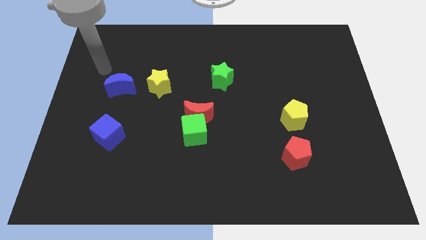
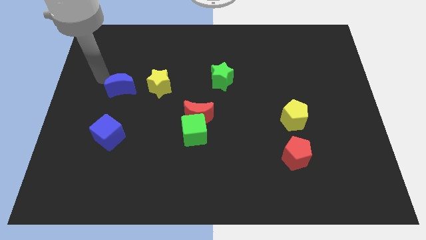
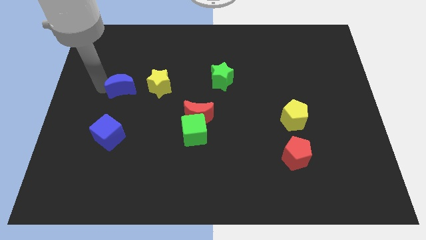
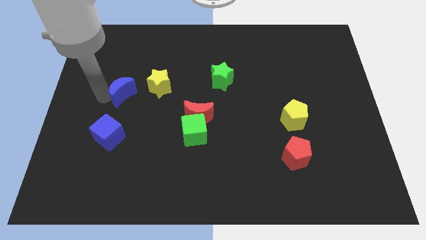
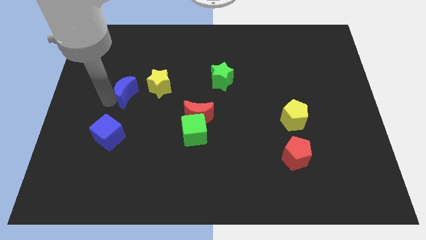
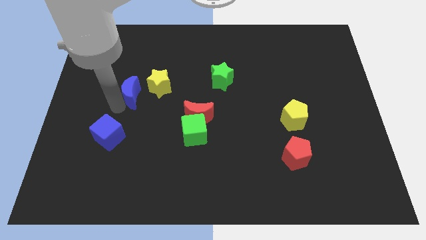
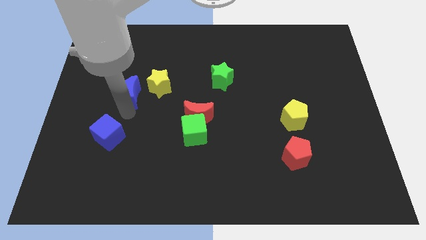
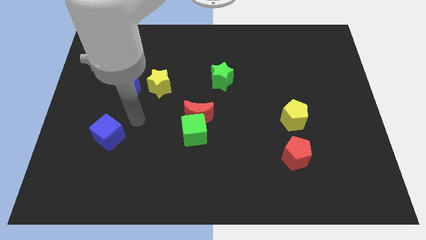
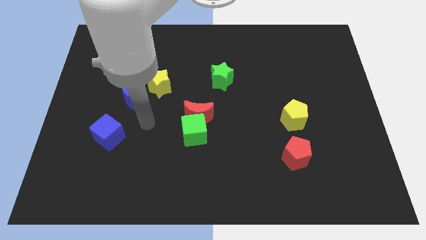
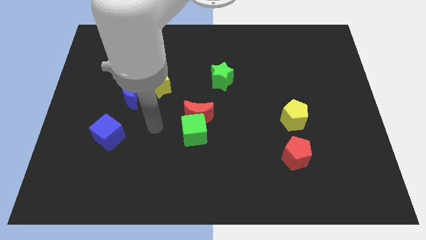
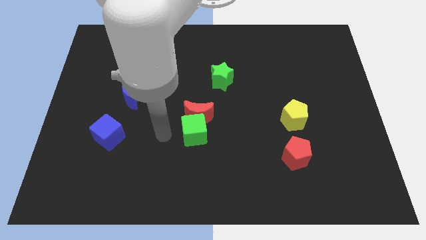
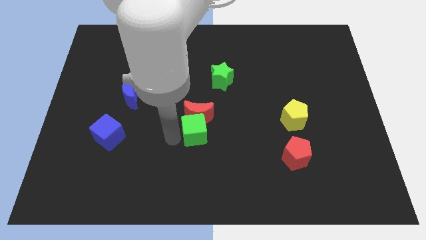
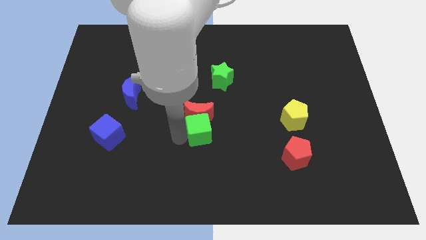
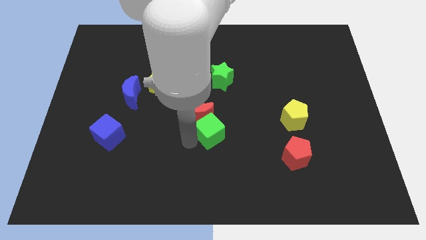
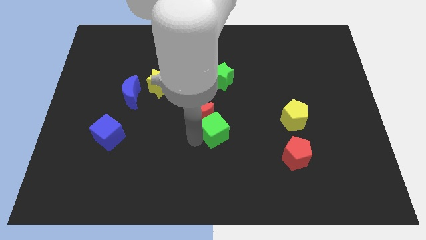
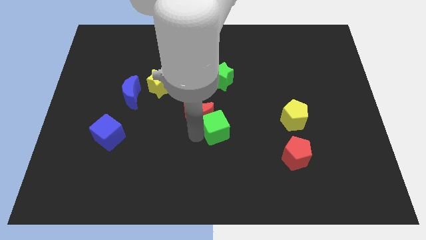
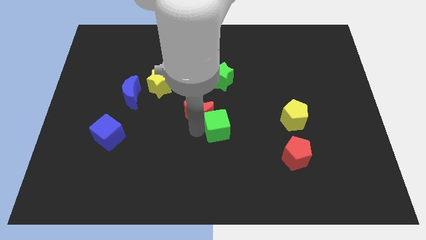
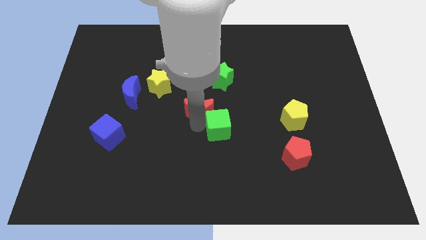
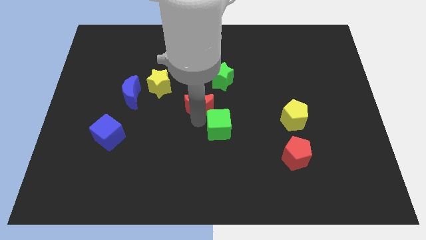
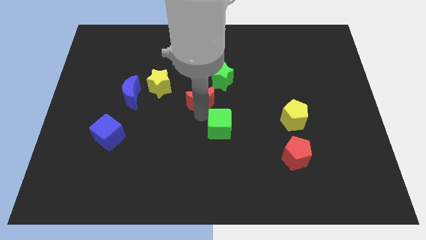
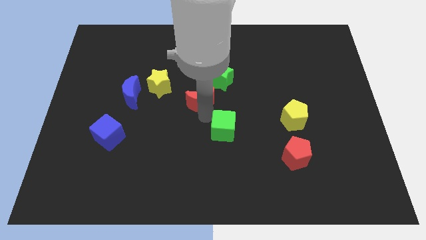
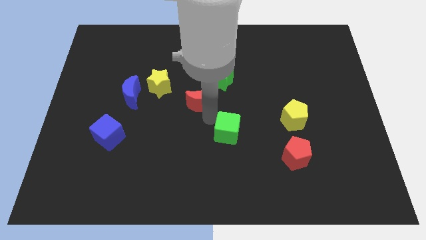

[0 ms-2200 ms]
pull the red moon apart from the green cube

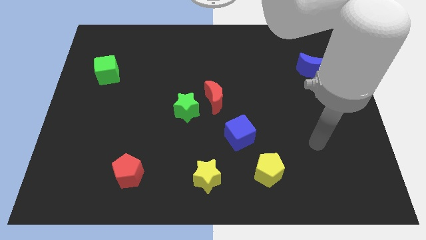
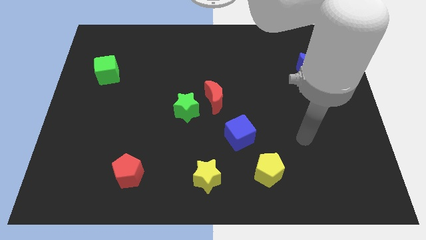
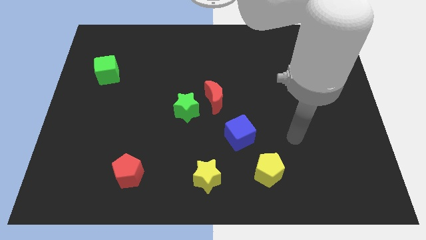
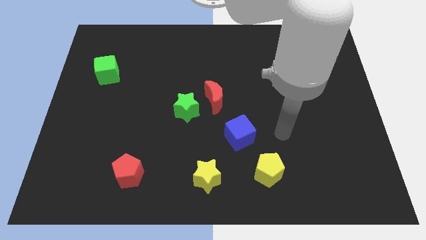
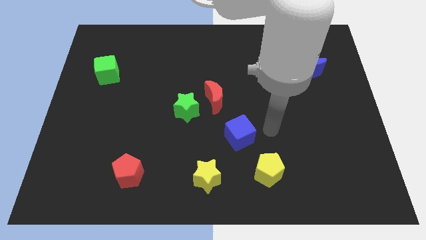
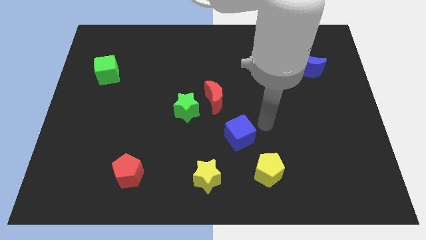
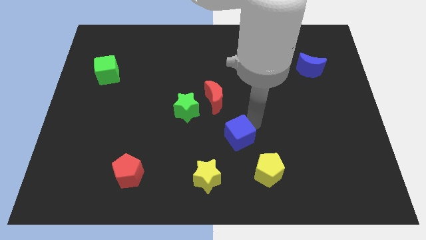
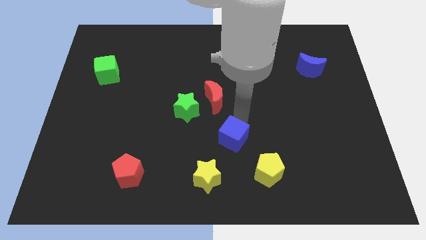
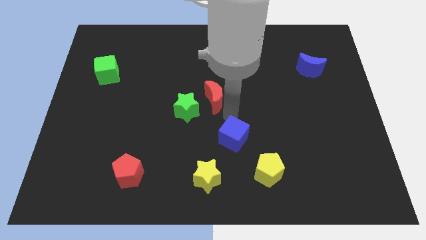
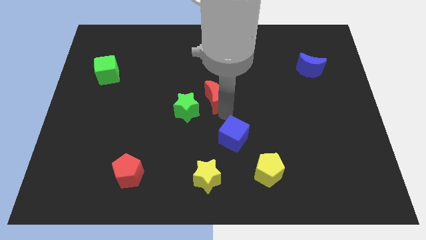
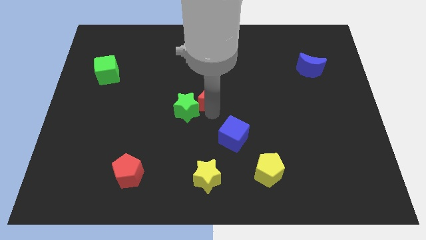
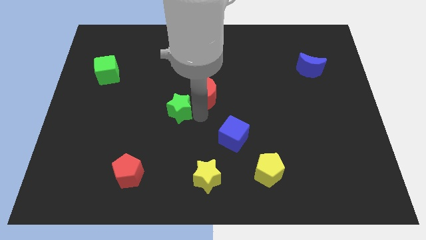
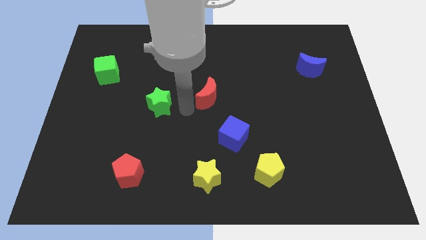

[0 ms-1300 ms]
pull the red moon apart from the green star

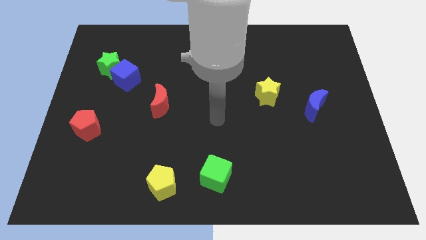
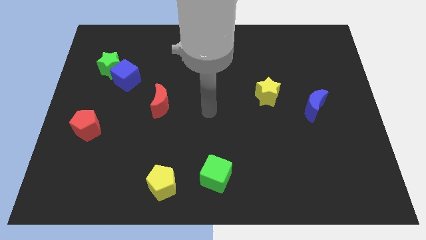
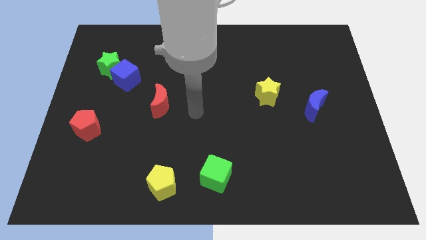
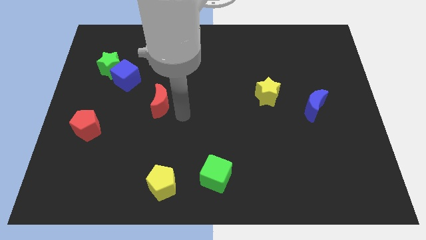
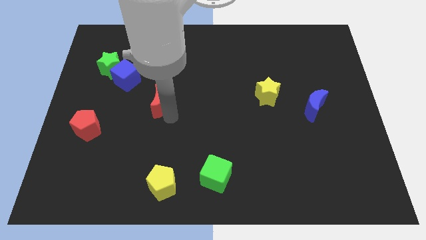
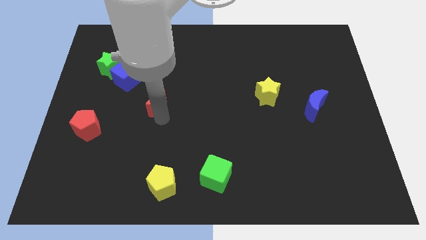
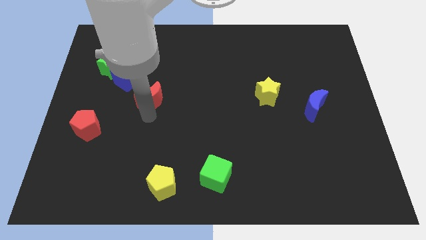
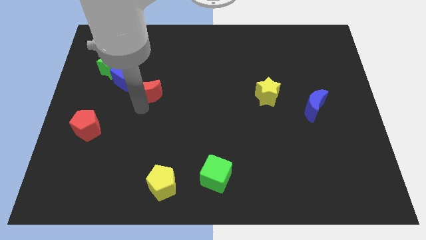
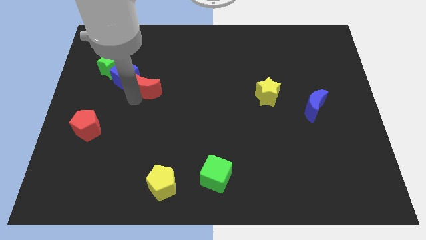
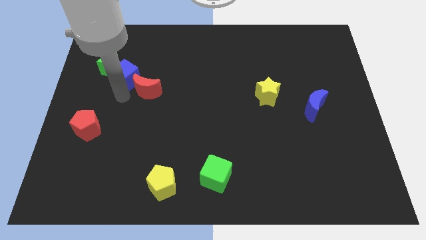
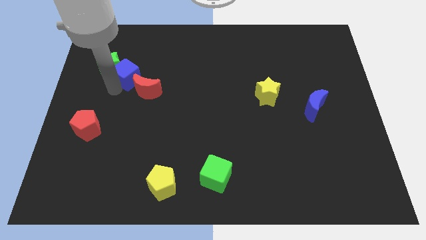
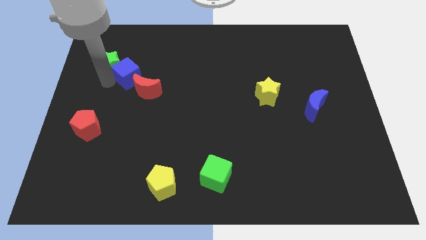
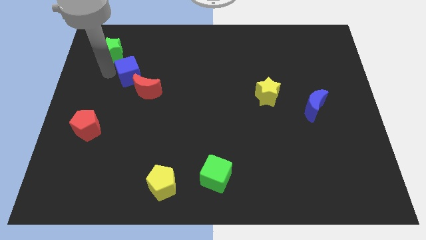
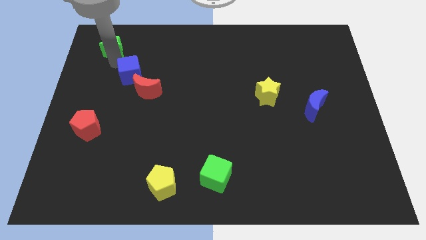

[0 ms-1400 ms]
separate the blue cube from the green star

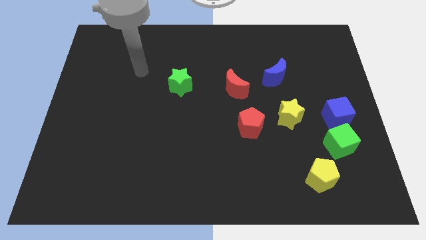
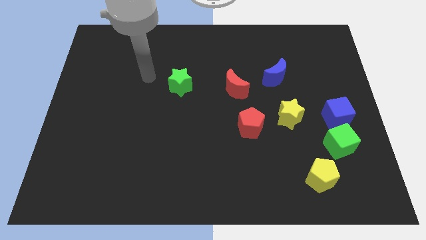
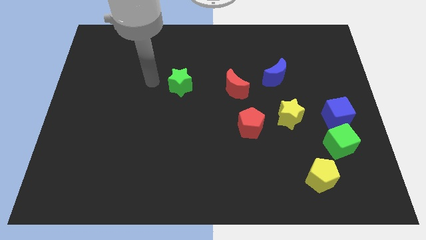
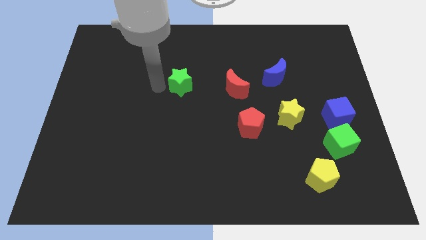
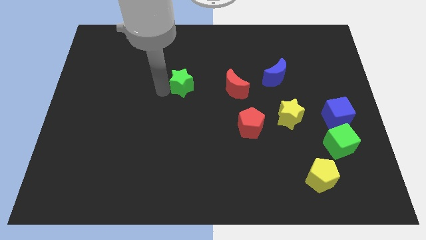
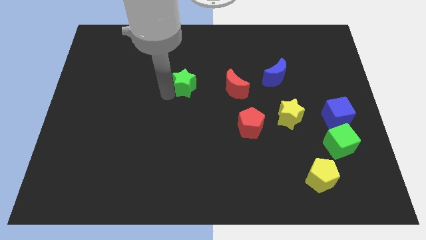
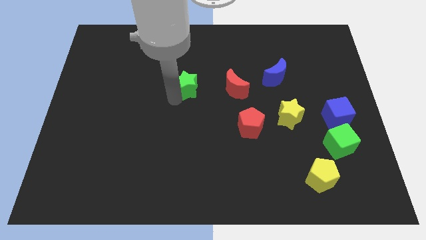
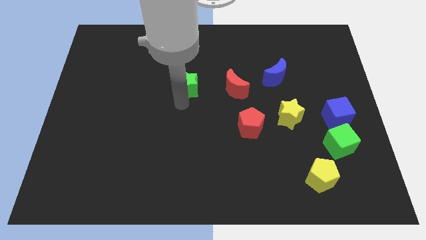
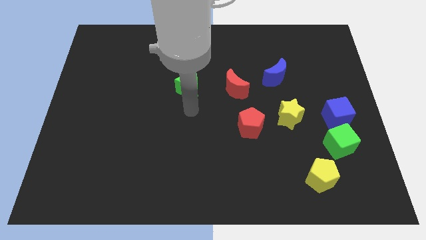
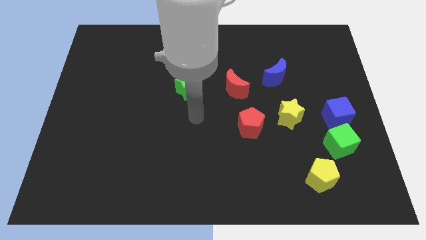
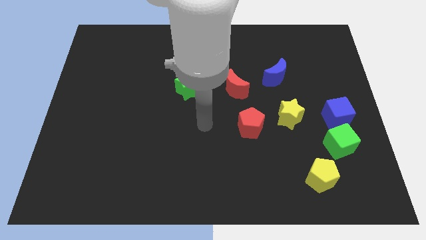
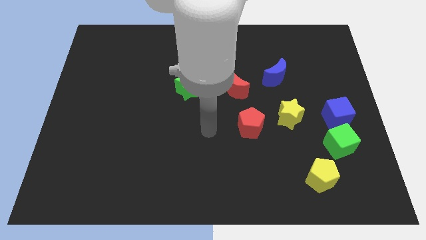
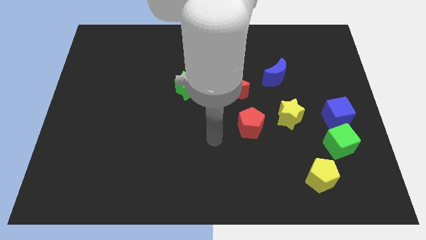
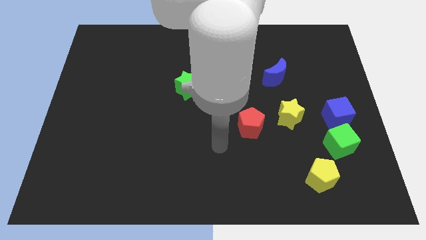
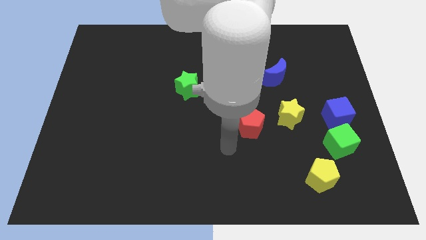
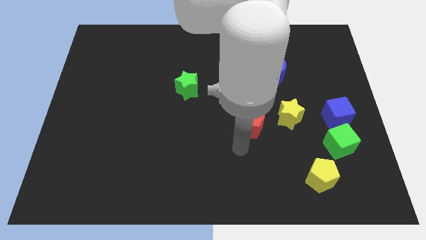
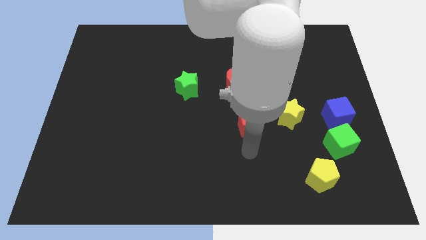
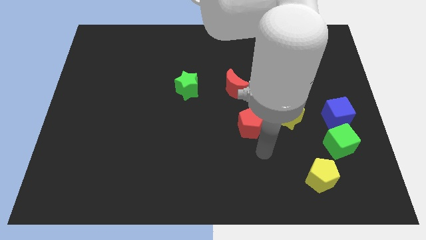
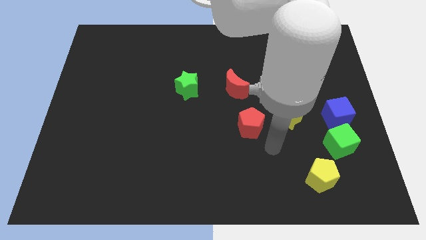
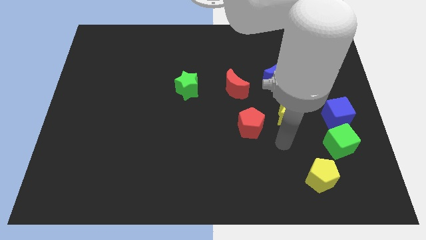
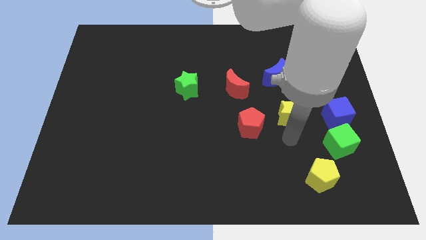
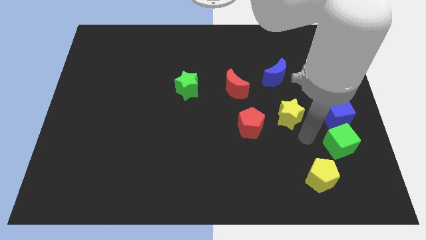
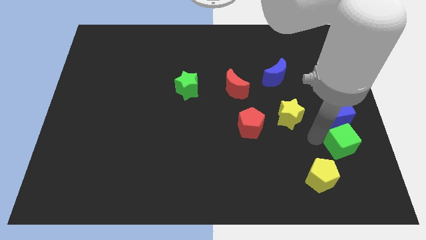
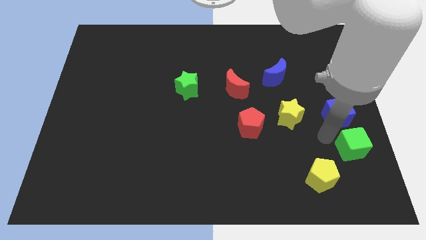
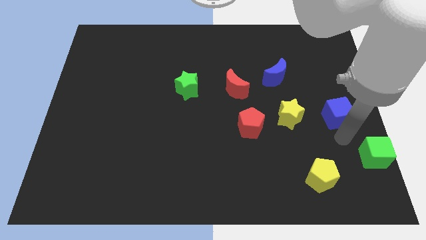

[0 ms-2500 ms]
separate the blue cube from the green cube

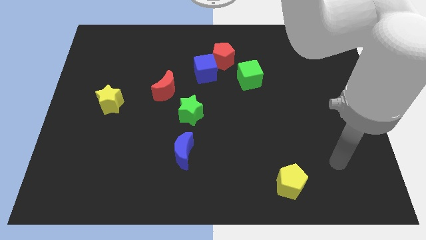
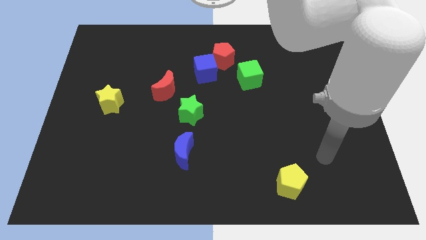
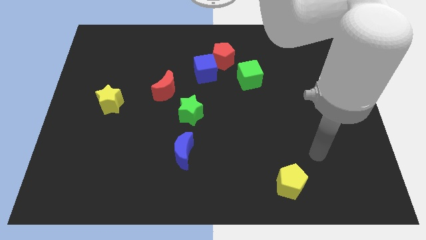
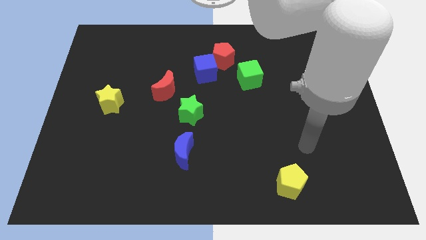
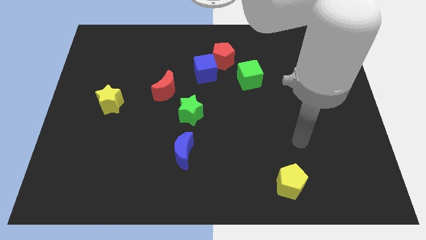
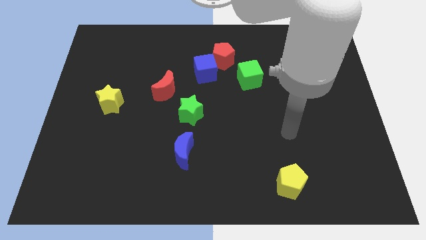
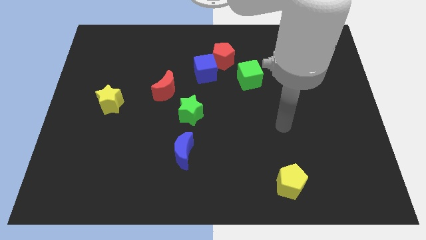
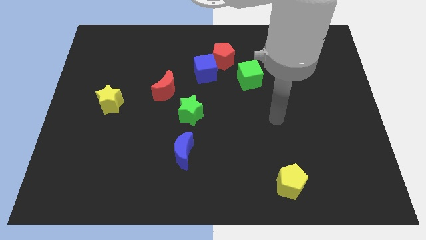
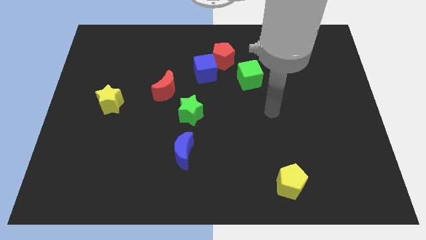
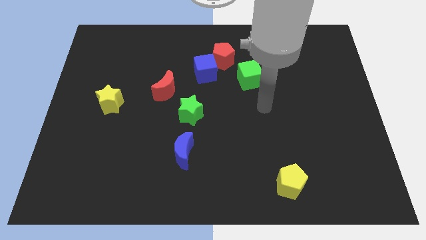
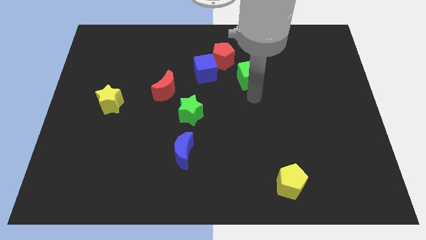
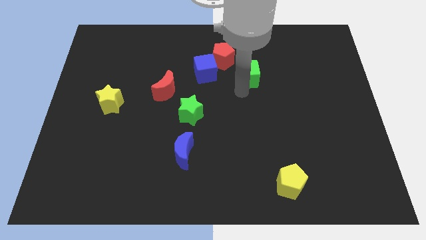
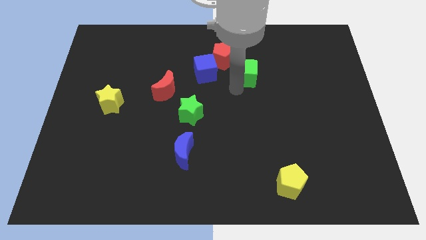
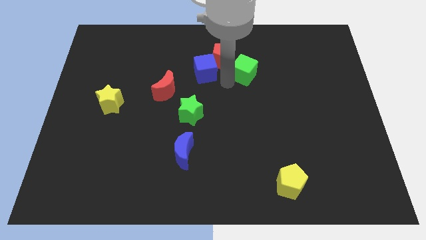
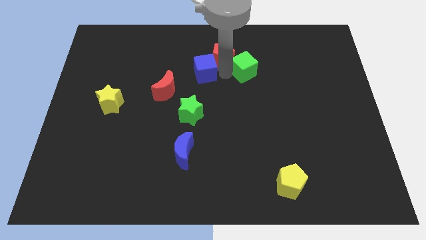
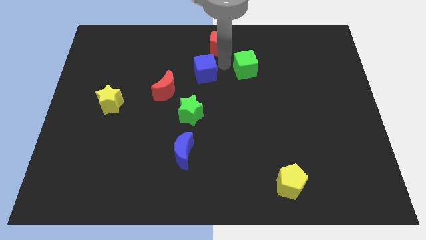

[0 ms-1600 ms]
separate the blue cube from the red pentagon

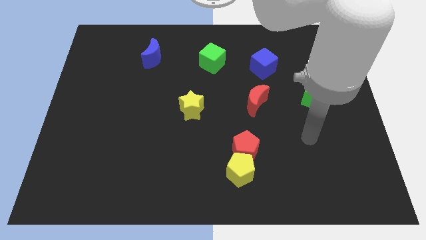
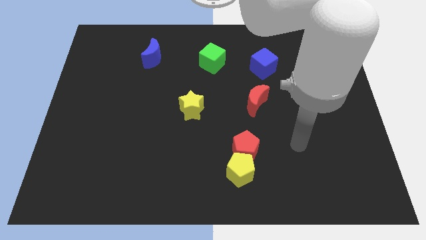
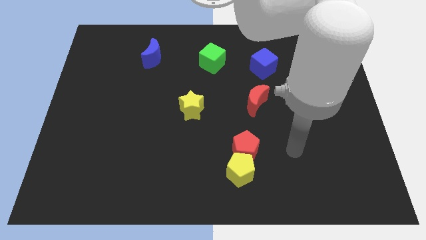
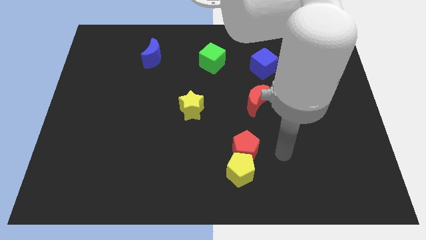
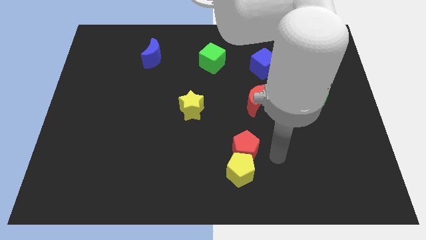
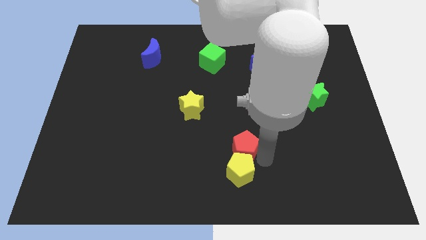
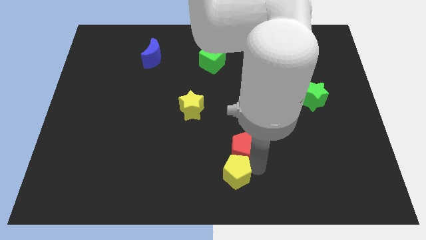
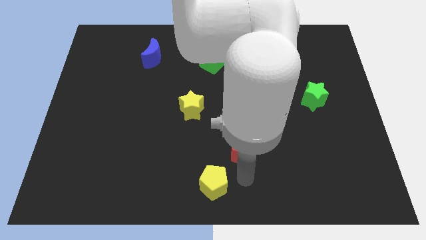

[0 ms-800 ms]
move the red pentagon away from the yellow pentagon
